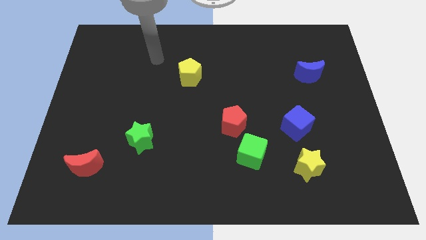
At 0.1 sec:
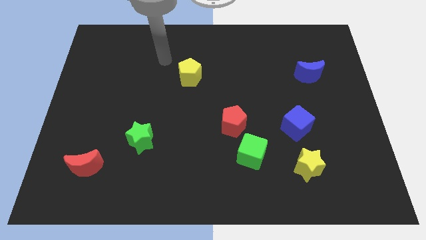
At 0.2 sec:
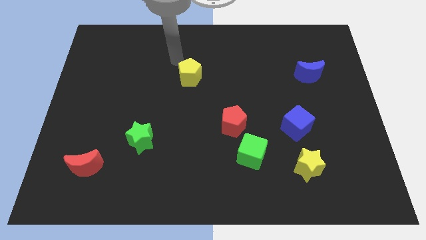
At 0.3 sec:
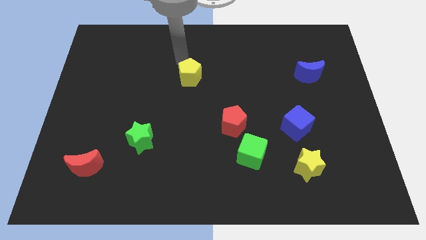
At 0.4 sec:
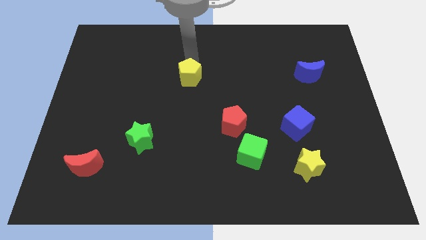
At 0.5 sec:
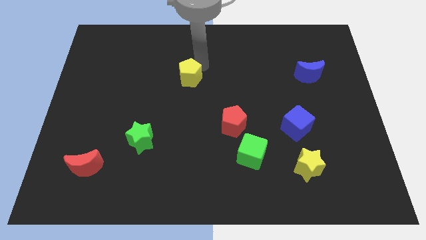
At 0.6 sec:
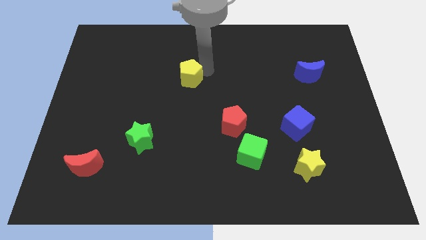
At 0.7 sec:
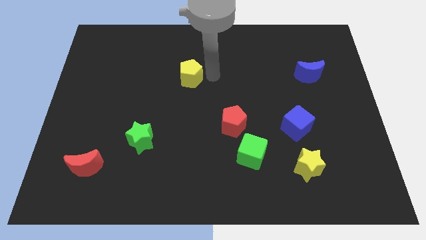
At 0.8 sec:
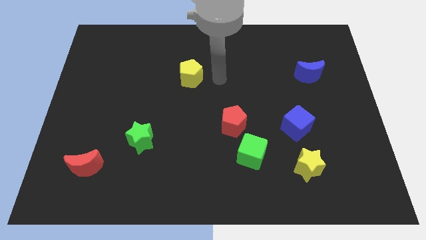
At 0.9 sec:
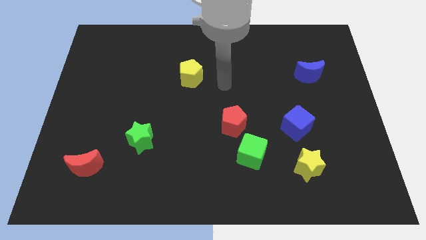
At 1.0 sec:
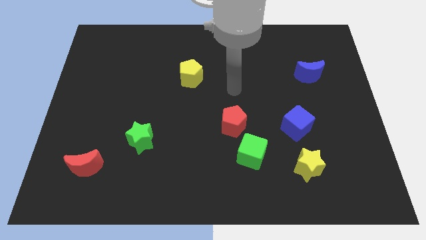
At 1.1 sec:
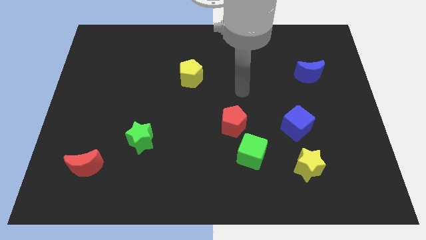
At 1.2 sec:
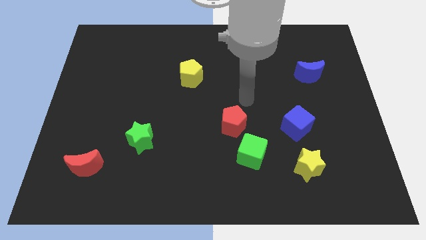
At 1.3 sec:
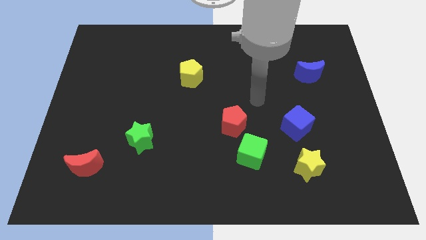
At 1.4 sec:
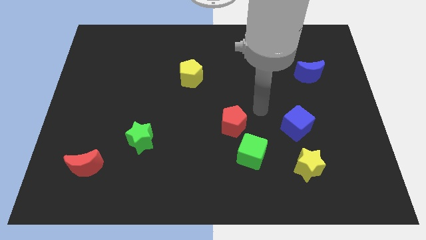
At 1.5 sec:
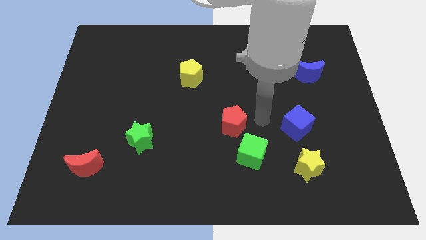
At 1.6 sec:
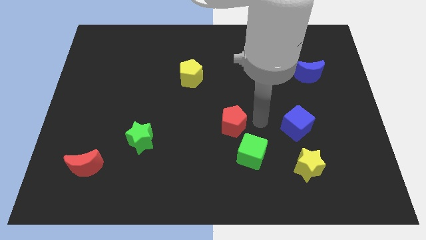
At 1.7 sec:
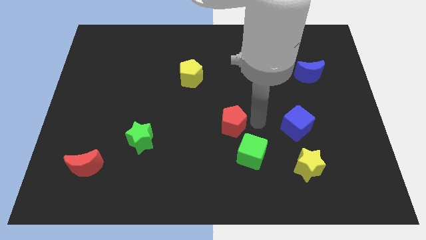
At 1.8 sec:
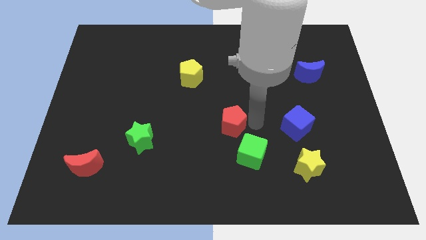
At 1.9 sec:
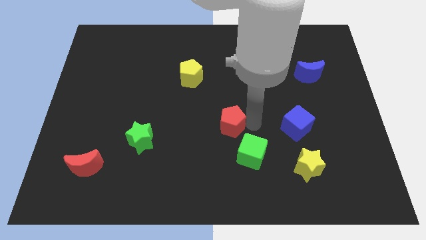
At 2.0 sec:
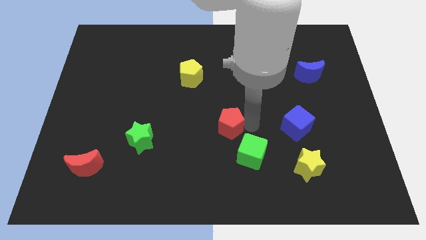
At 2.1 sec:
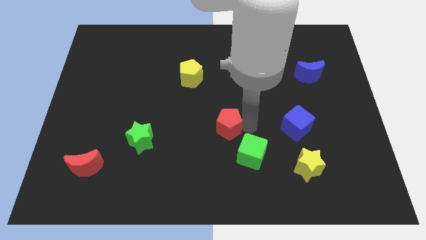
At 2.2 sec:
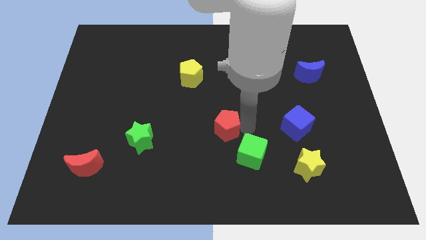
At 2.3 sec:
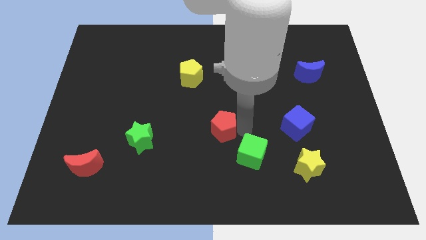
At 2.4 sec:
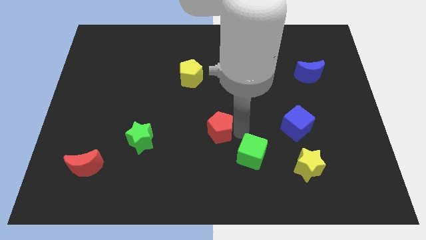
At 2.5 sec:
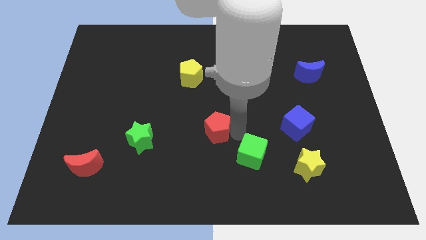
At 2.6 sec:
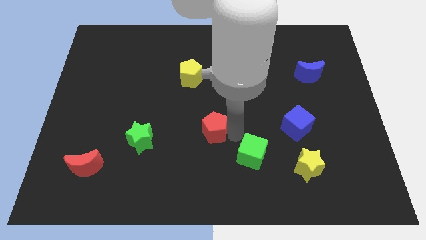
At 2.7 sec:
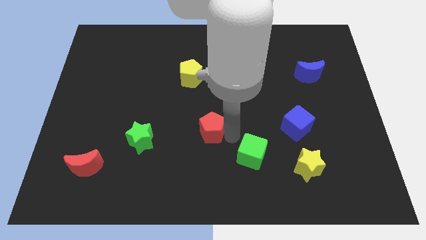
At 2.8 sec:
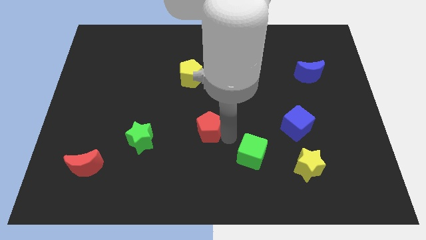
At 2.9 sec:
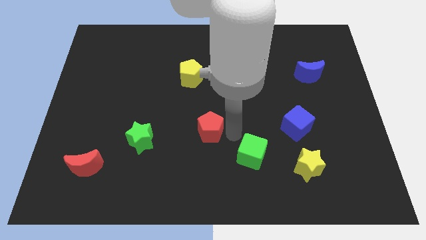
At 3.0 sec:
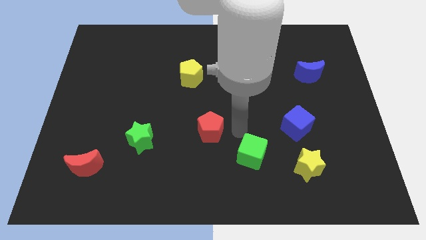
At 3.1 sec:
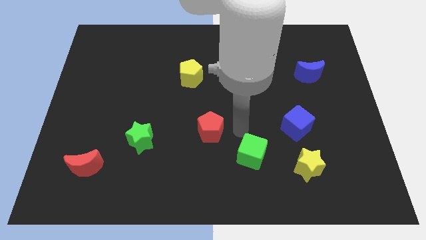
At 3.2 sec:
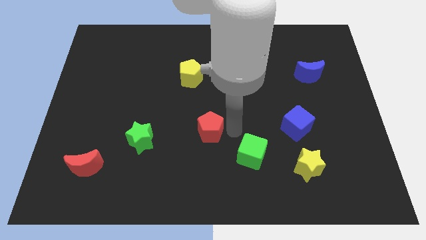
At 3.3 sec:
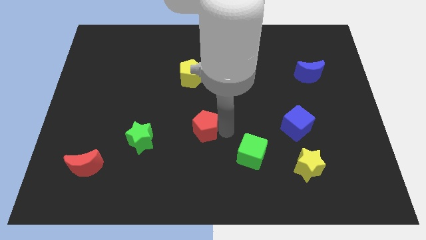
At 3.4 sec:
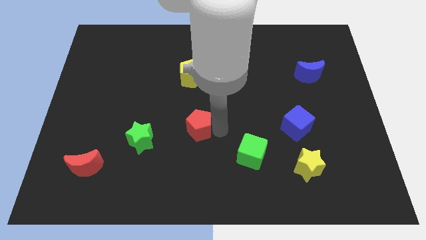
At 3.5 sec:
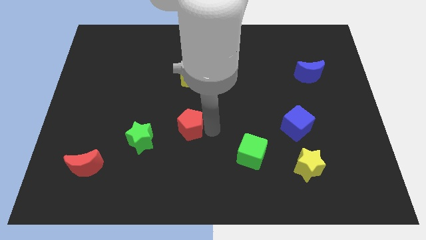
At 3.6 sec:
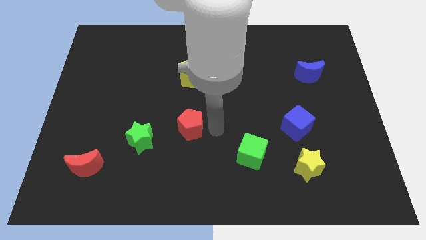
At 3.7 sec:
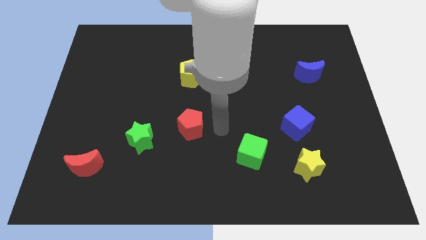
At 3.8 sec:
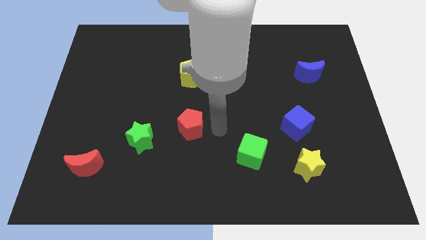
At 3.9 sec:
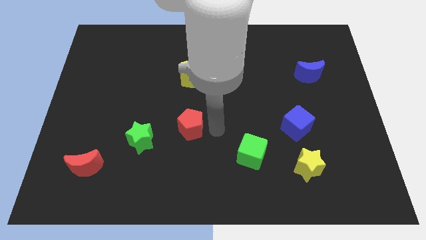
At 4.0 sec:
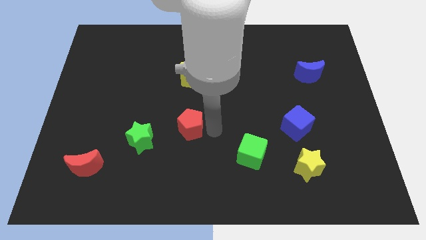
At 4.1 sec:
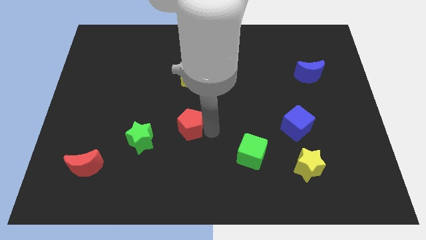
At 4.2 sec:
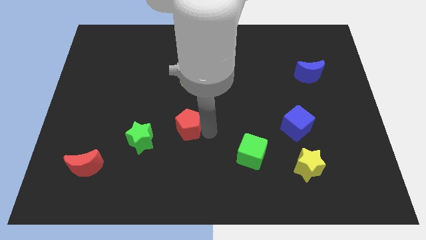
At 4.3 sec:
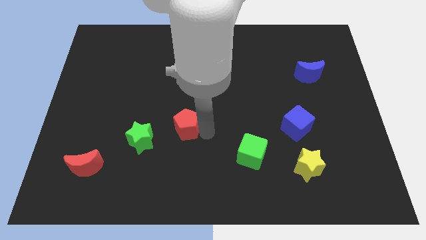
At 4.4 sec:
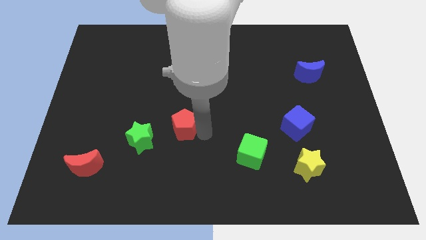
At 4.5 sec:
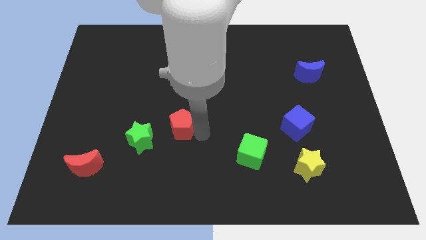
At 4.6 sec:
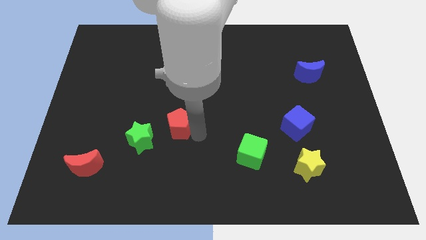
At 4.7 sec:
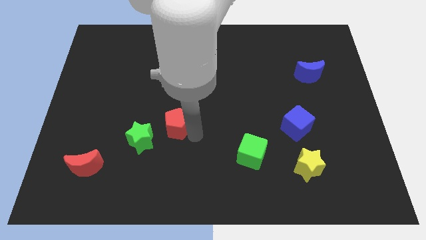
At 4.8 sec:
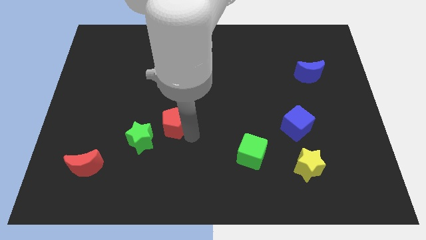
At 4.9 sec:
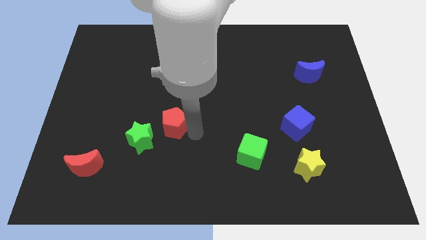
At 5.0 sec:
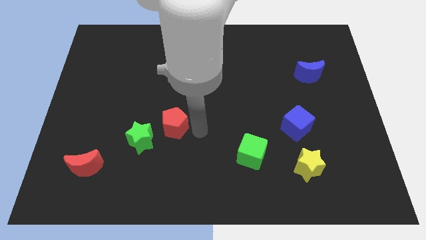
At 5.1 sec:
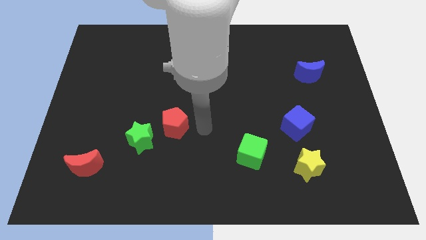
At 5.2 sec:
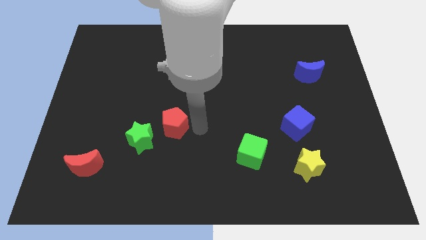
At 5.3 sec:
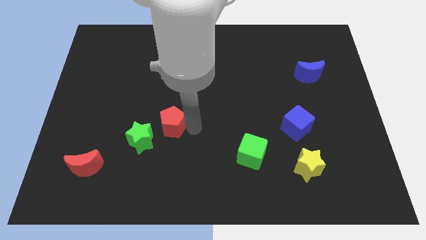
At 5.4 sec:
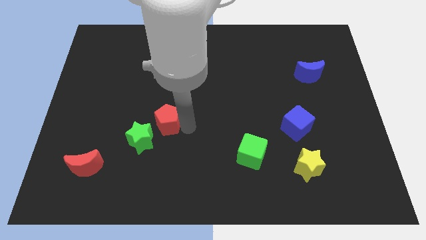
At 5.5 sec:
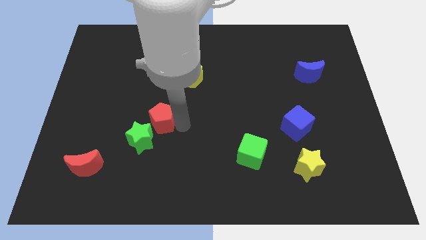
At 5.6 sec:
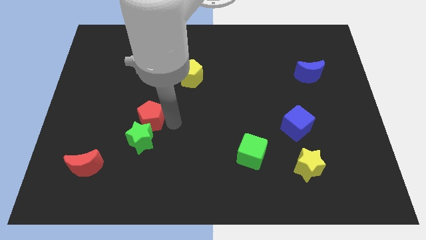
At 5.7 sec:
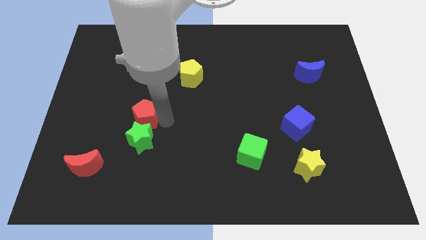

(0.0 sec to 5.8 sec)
push the red pentagon to the left

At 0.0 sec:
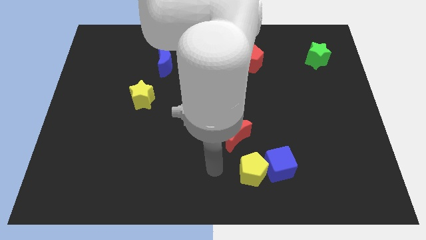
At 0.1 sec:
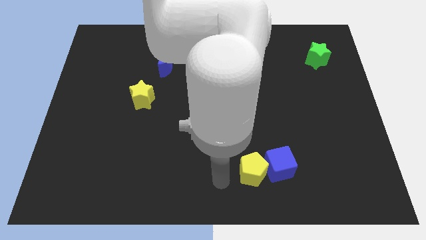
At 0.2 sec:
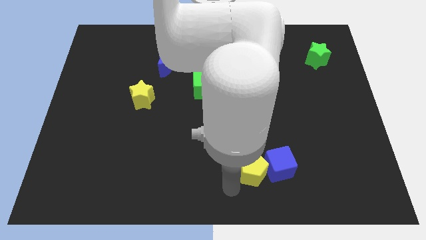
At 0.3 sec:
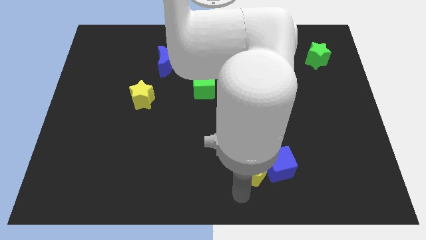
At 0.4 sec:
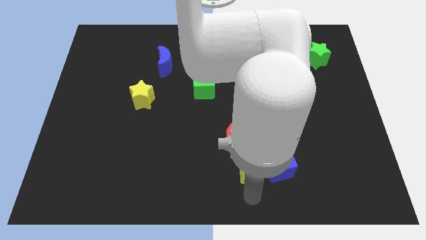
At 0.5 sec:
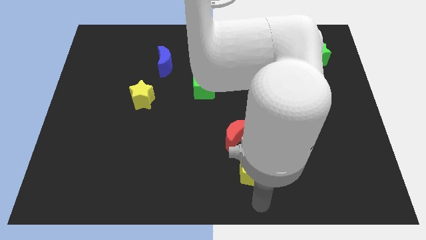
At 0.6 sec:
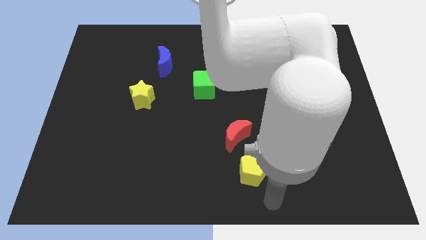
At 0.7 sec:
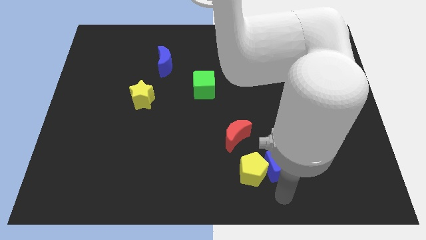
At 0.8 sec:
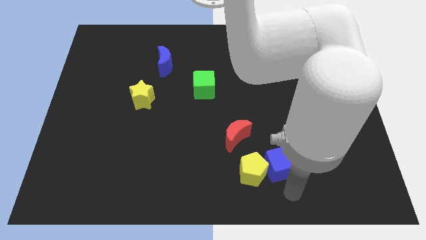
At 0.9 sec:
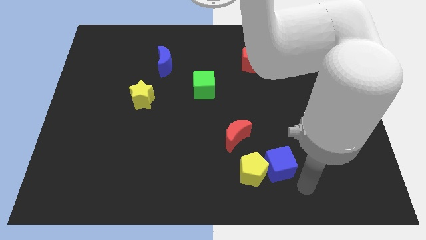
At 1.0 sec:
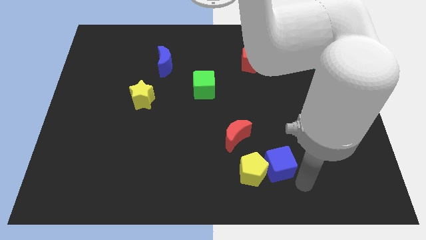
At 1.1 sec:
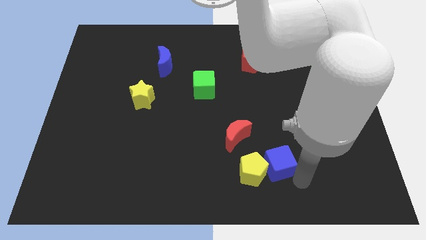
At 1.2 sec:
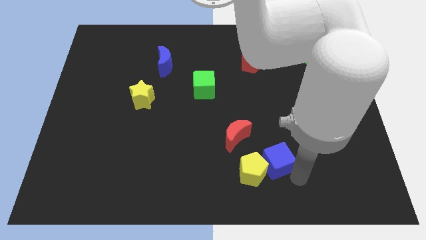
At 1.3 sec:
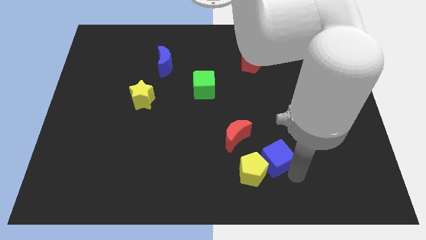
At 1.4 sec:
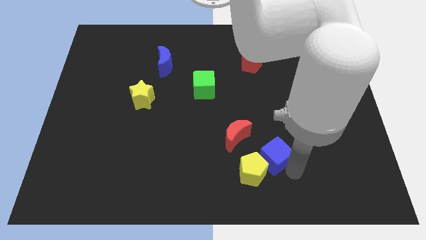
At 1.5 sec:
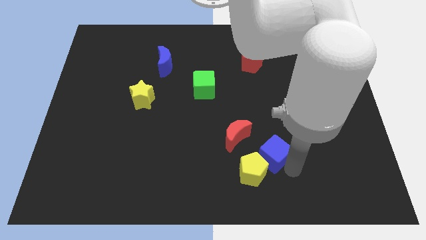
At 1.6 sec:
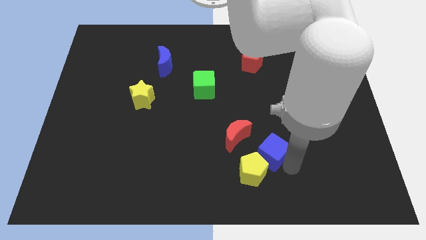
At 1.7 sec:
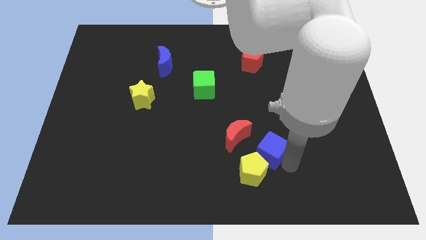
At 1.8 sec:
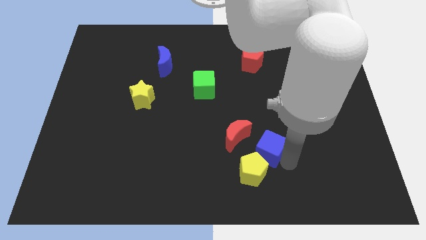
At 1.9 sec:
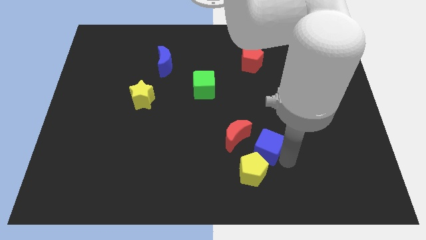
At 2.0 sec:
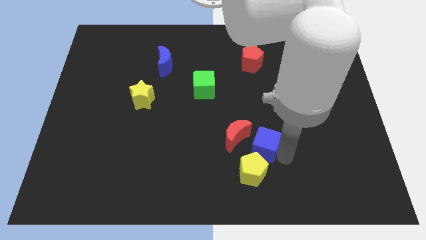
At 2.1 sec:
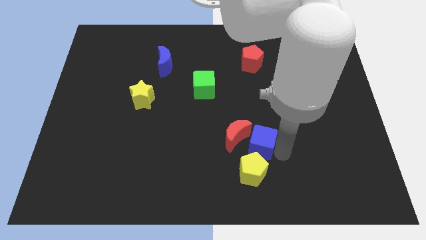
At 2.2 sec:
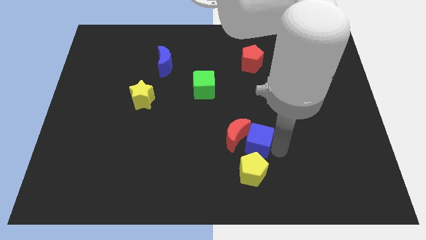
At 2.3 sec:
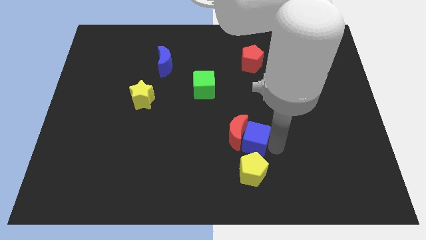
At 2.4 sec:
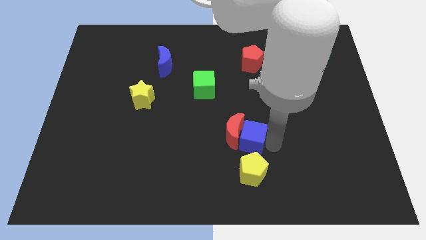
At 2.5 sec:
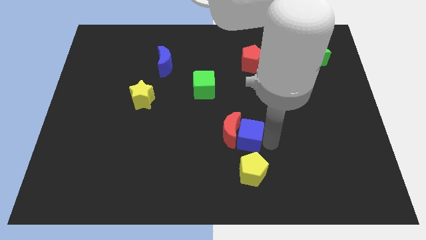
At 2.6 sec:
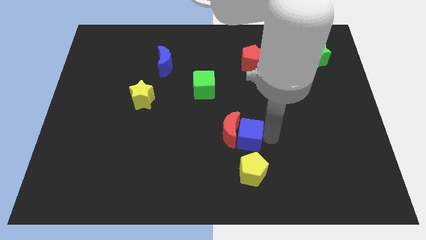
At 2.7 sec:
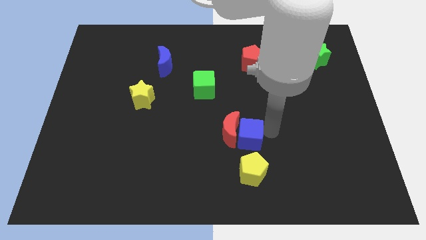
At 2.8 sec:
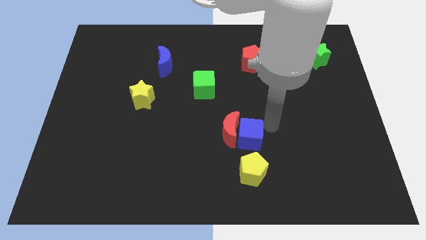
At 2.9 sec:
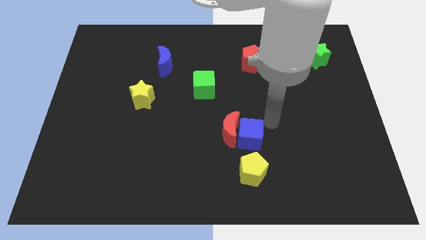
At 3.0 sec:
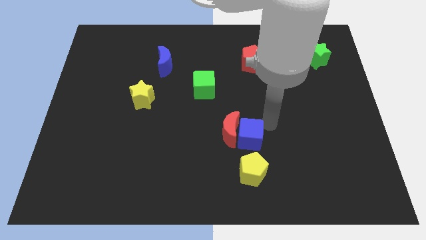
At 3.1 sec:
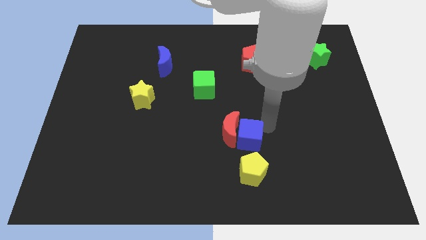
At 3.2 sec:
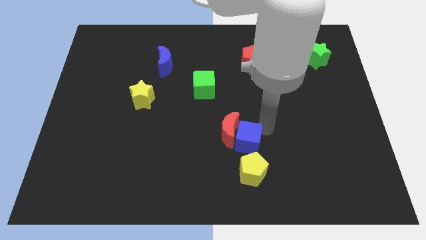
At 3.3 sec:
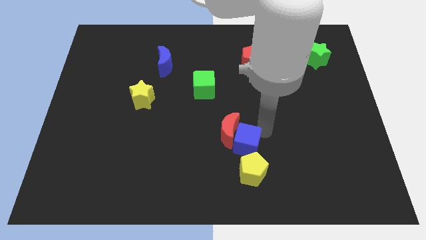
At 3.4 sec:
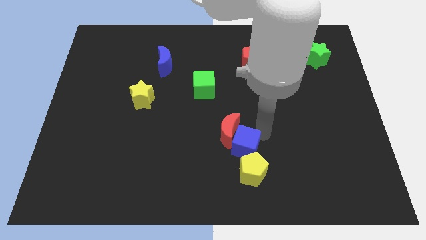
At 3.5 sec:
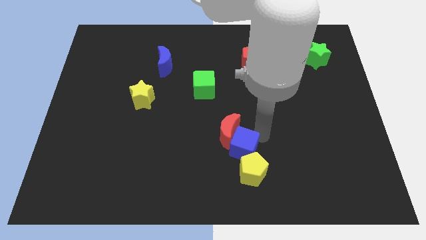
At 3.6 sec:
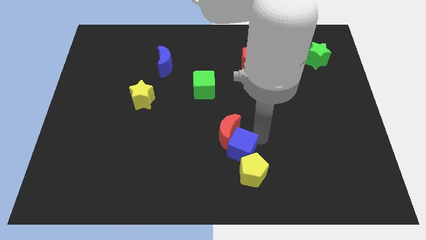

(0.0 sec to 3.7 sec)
slide the blue cube to the left somewhat
